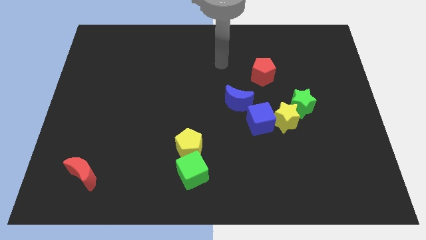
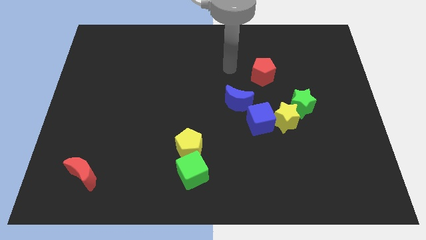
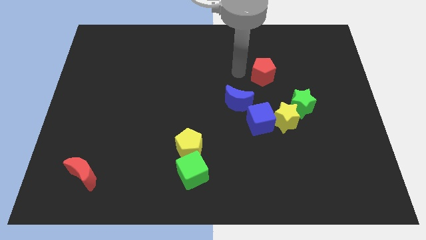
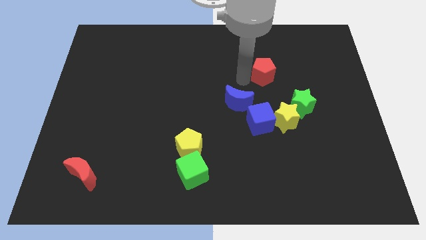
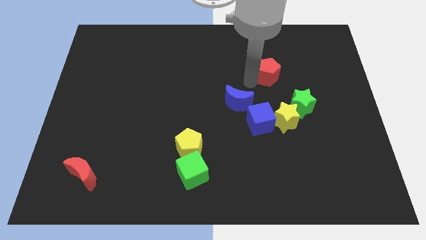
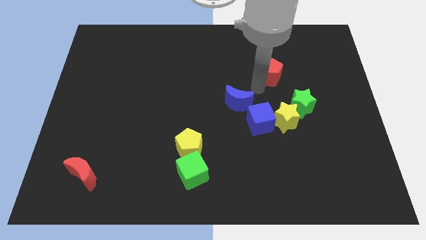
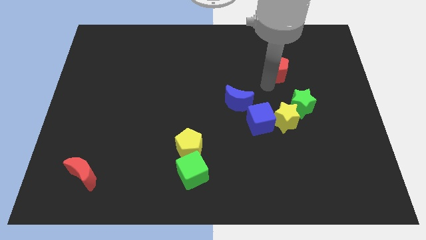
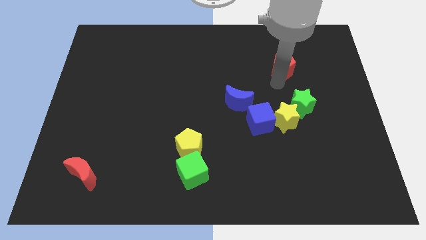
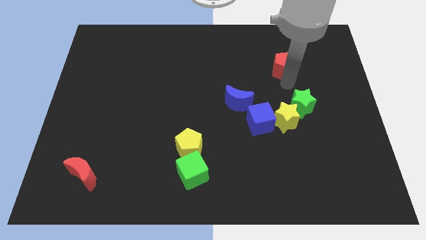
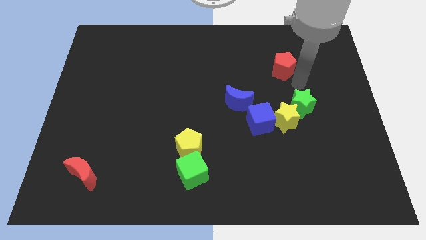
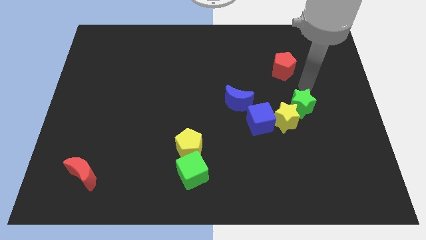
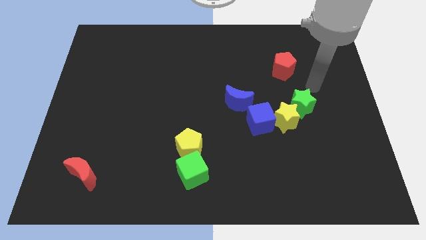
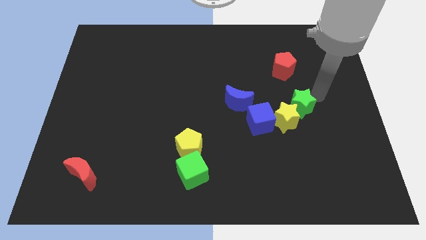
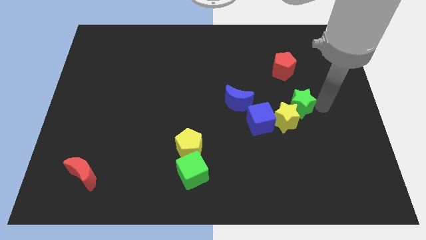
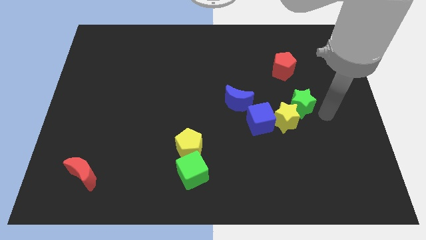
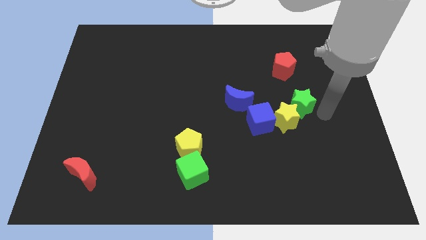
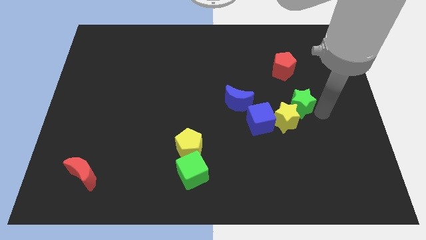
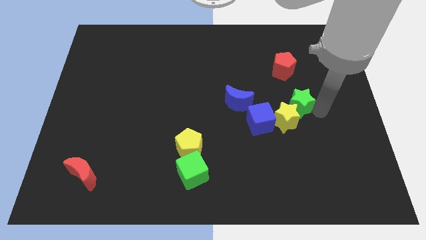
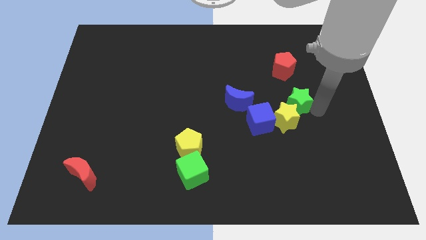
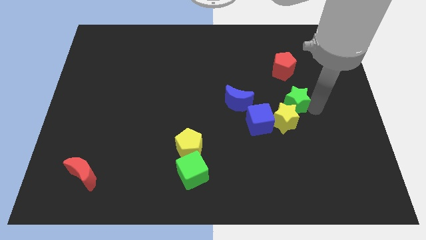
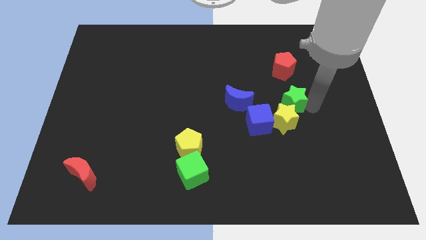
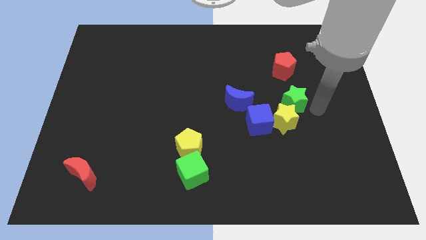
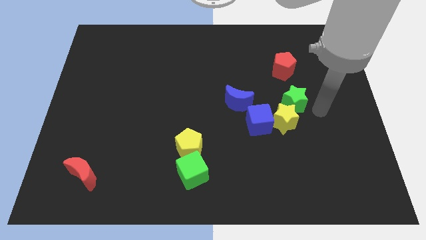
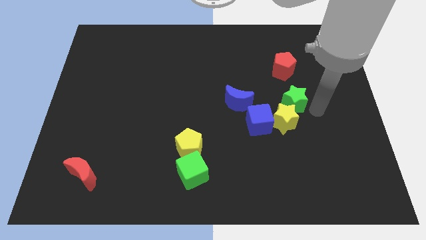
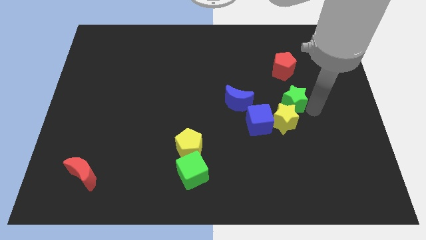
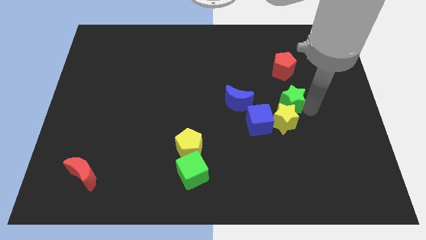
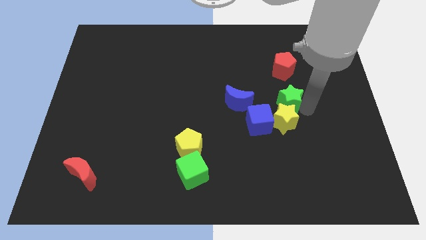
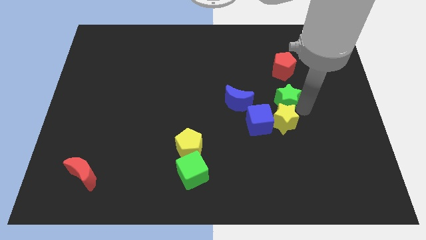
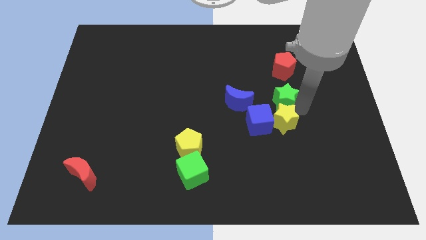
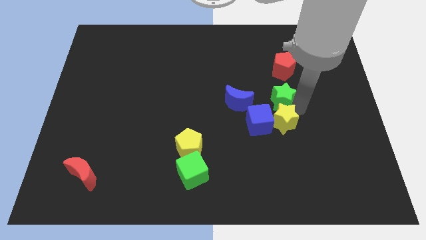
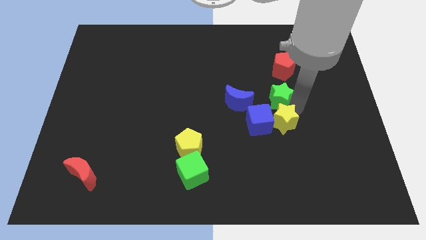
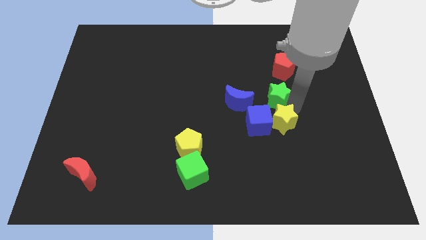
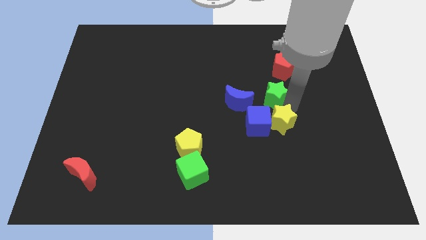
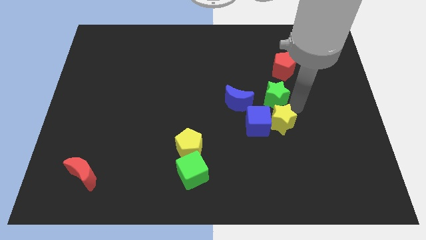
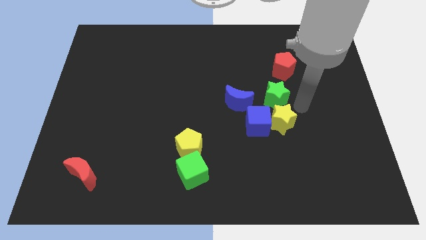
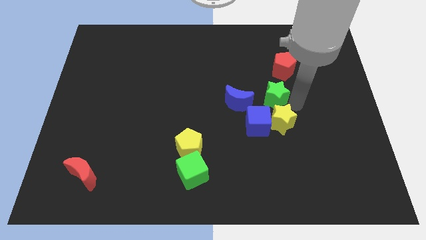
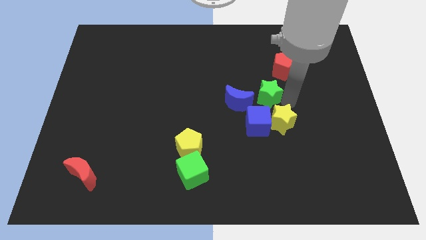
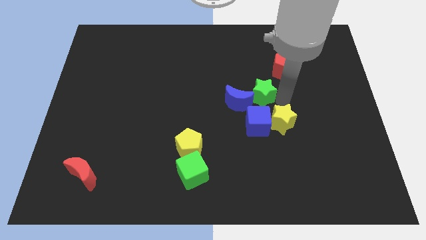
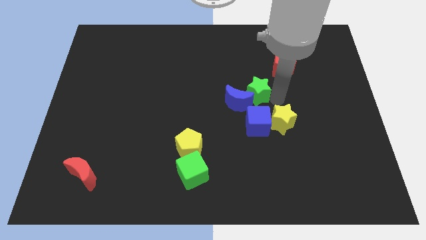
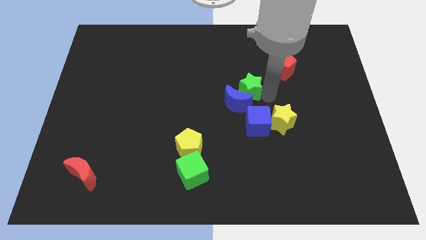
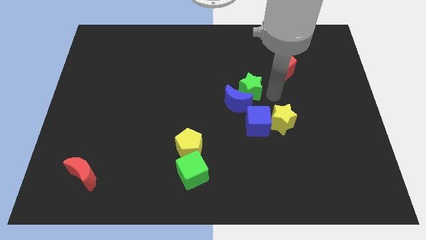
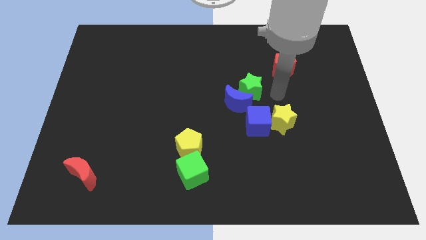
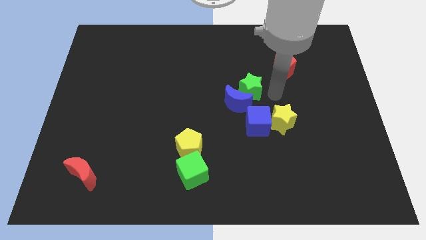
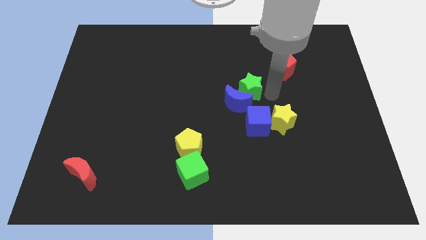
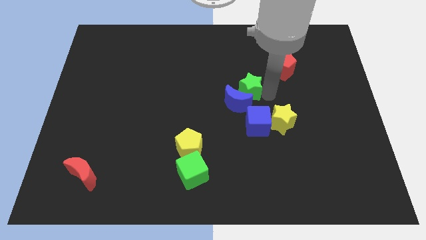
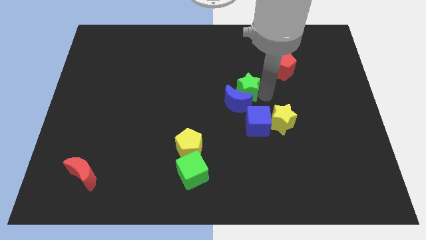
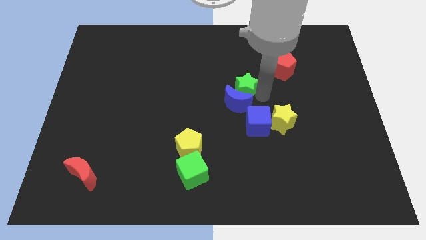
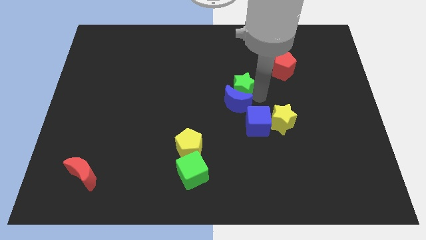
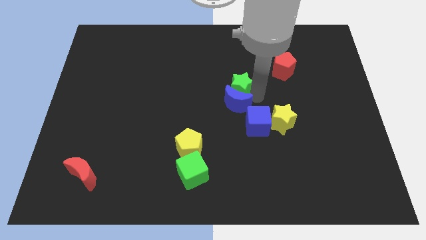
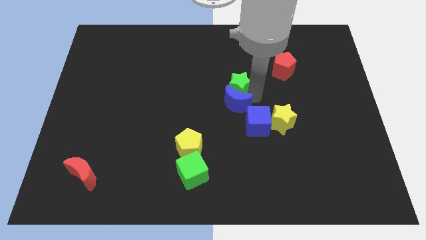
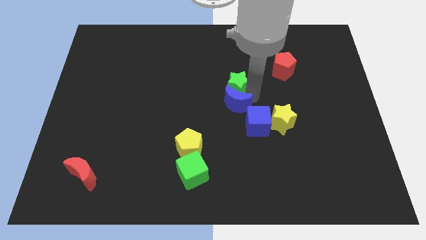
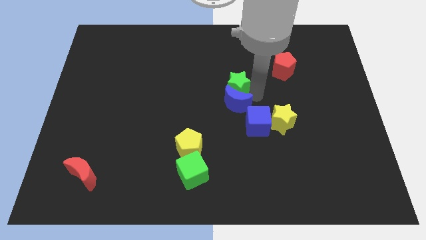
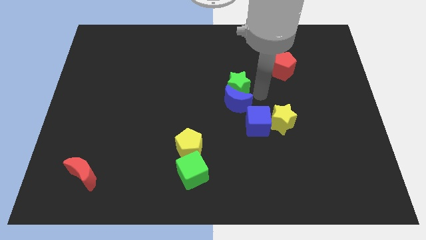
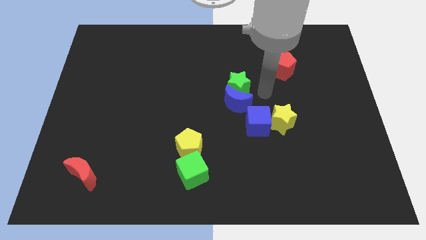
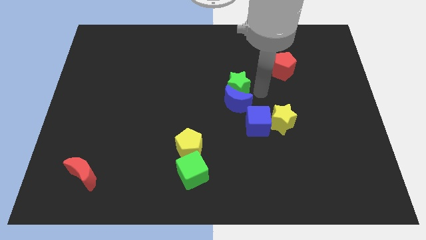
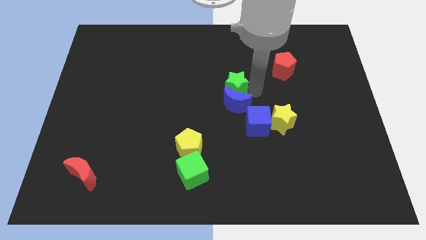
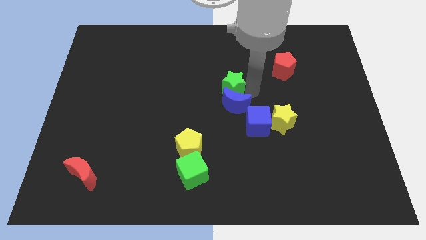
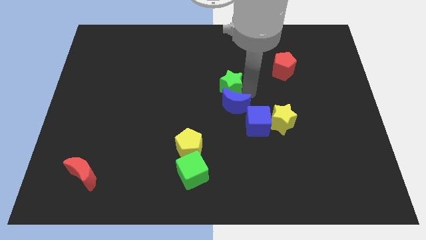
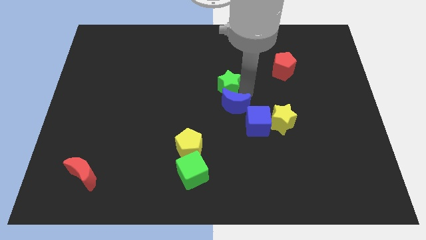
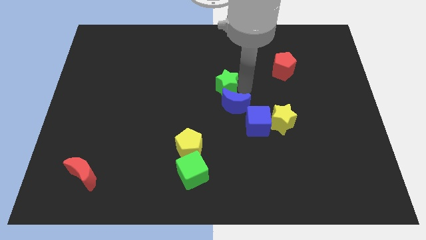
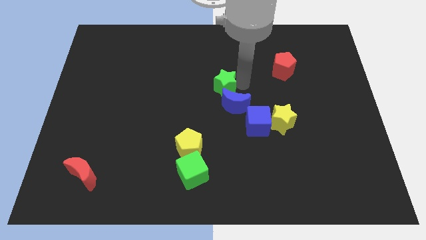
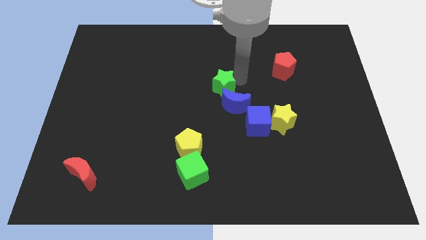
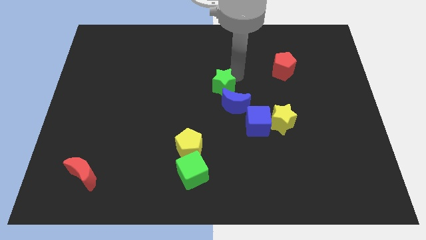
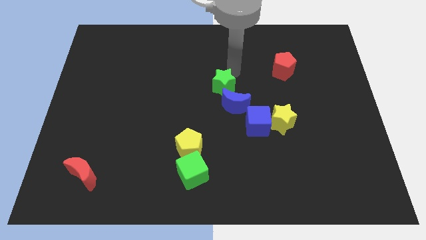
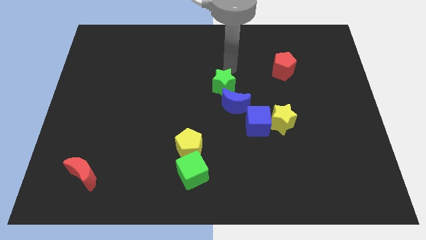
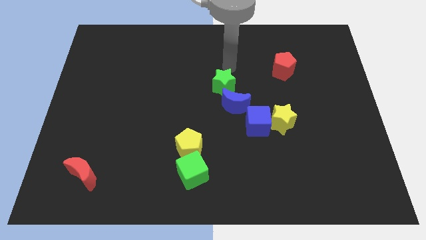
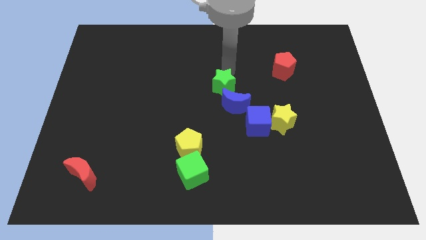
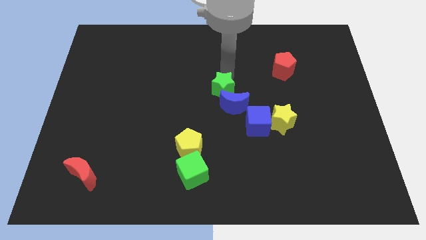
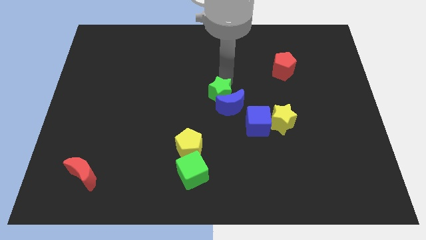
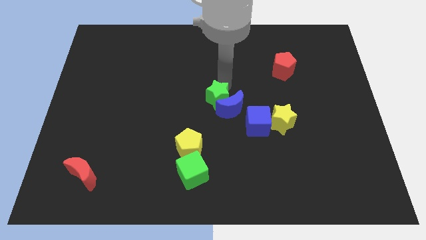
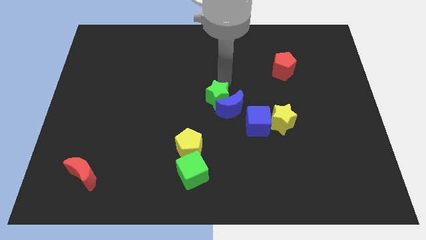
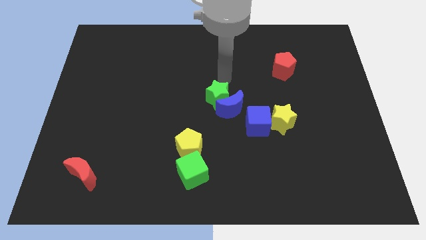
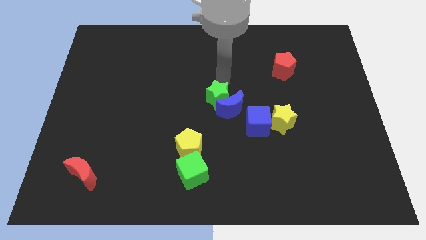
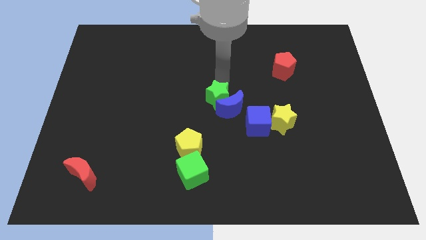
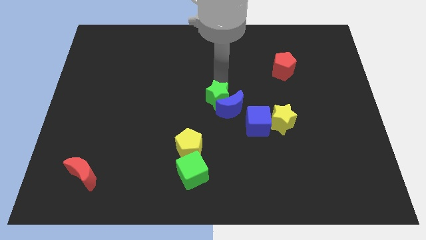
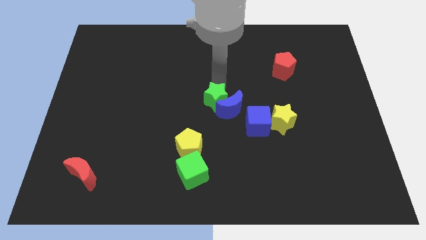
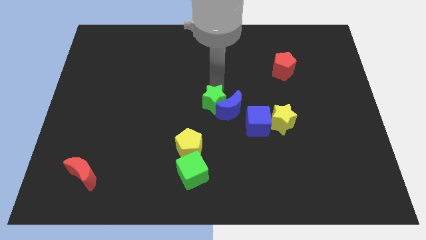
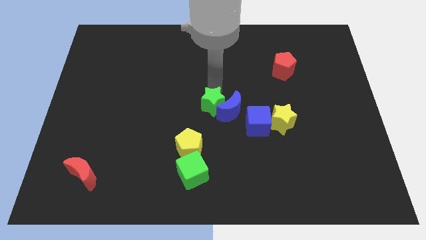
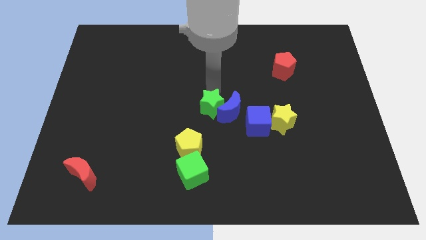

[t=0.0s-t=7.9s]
move the green star to the left side of the blue cube
